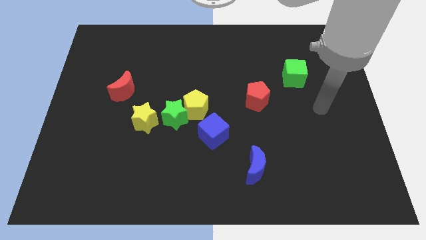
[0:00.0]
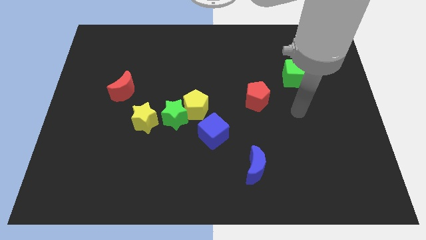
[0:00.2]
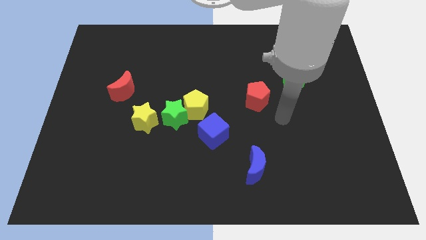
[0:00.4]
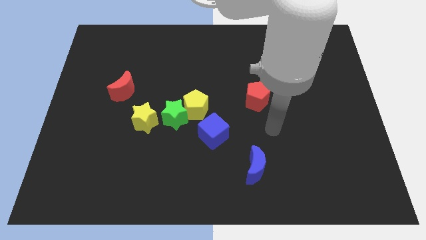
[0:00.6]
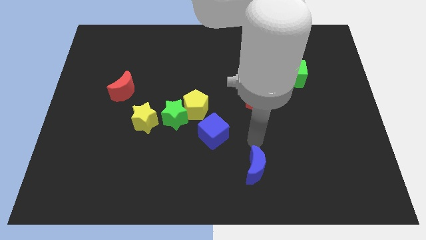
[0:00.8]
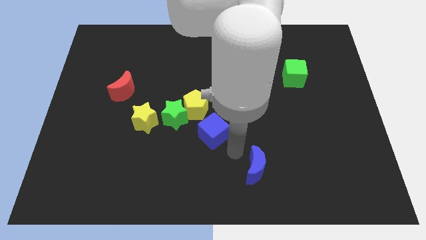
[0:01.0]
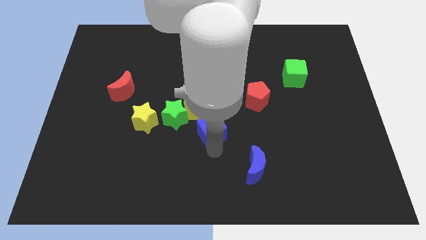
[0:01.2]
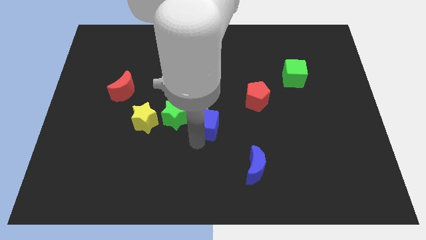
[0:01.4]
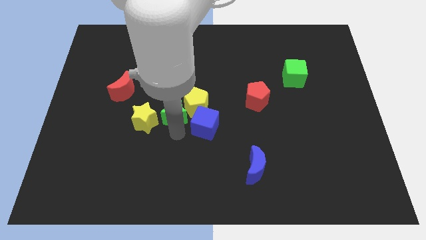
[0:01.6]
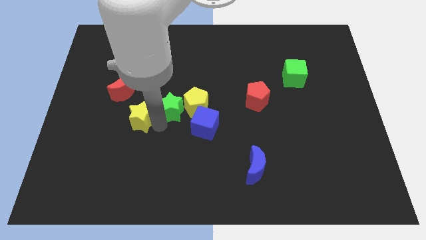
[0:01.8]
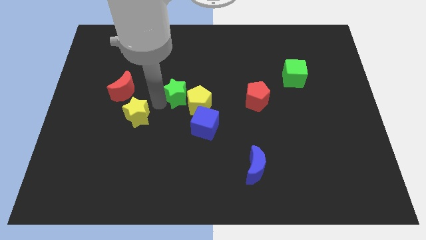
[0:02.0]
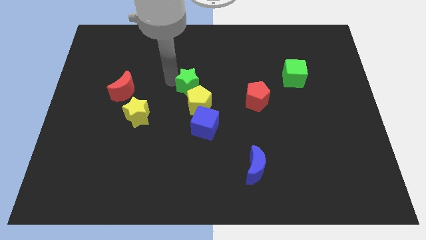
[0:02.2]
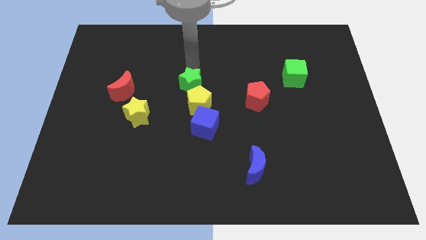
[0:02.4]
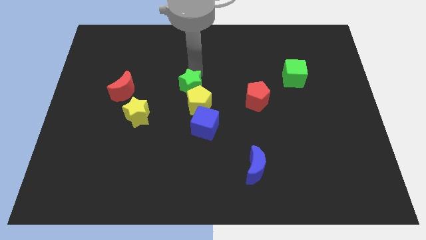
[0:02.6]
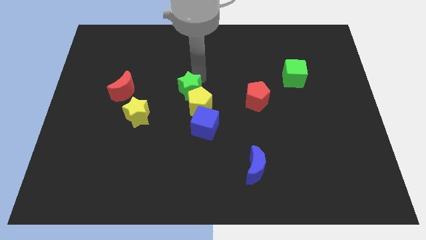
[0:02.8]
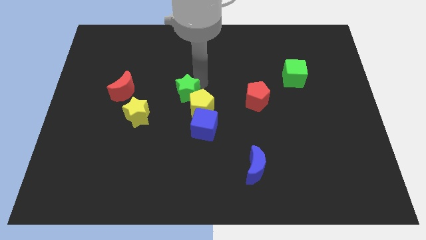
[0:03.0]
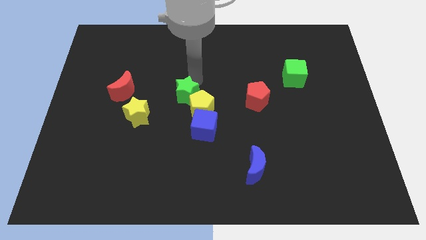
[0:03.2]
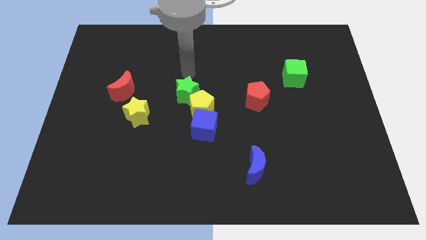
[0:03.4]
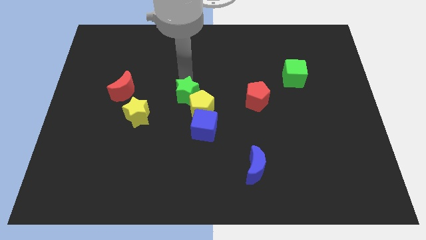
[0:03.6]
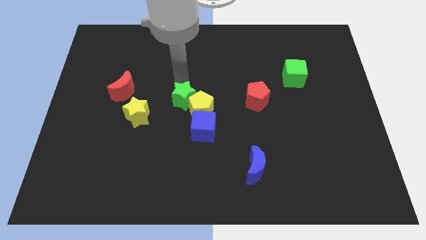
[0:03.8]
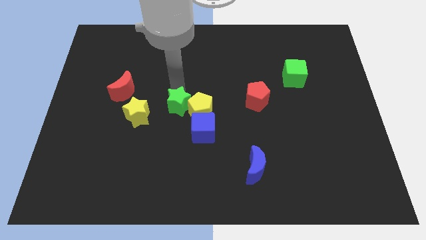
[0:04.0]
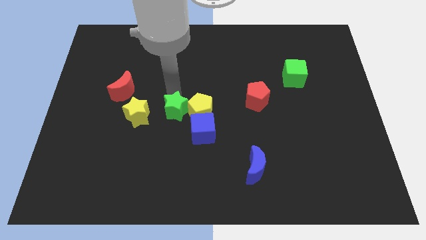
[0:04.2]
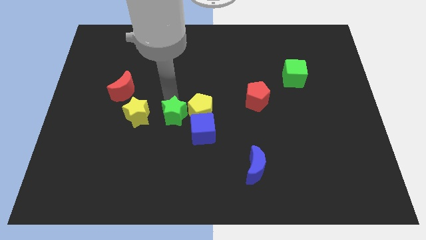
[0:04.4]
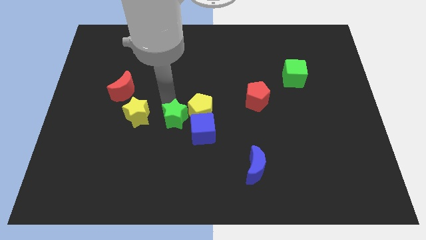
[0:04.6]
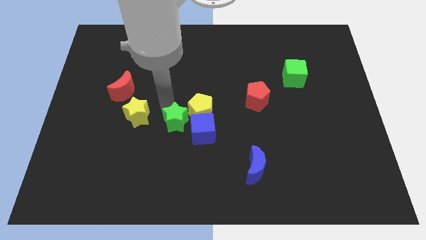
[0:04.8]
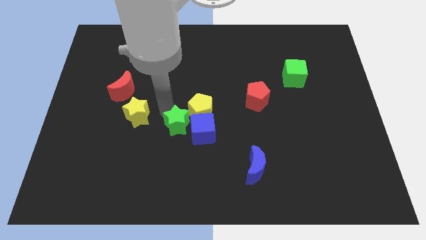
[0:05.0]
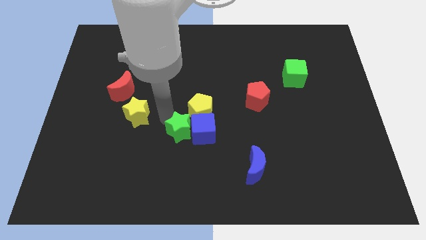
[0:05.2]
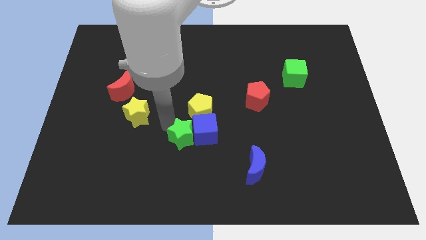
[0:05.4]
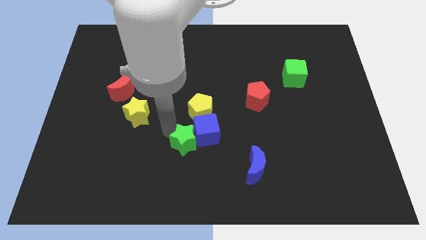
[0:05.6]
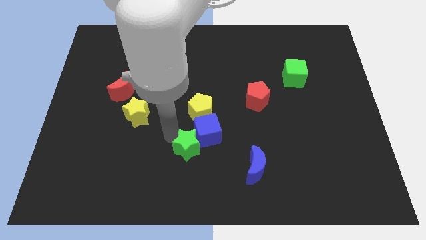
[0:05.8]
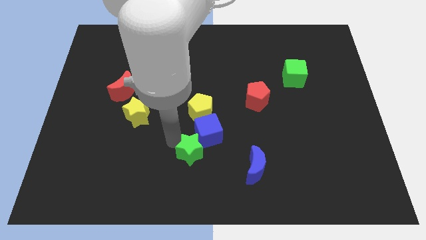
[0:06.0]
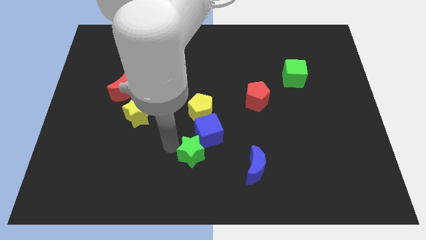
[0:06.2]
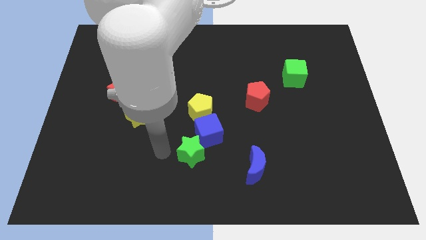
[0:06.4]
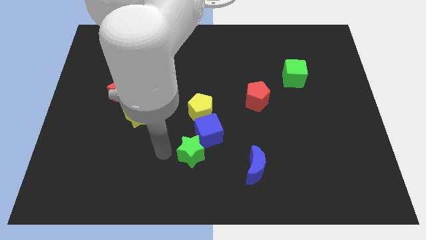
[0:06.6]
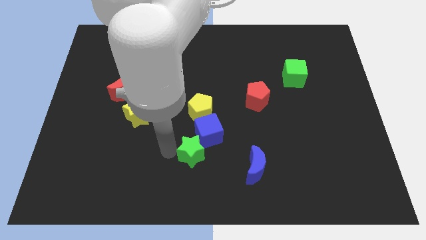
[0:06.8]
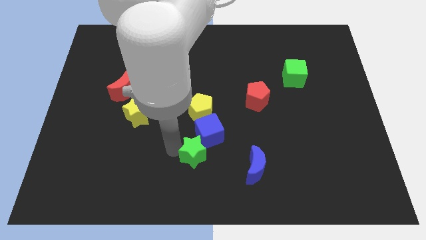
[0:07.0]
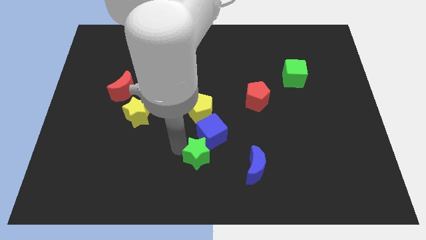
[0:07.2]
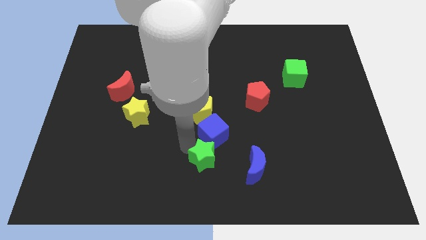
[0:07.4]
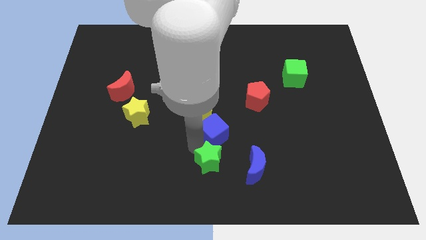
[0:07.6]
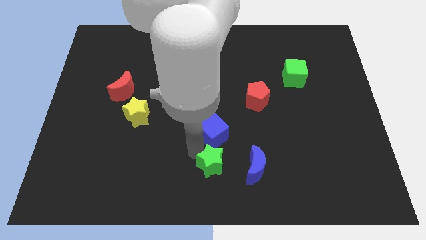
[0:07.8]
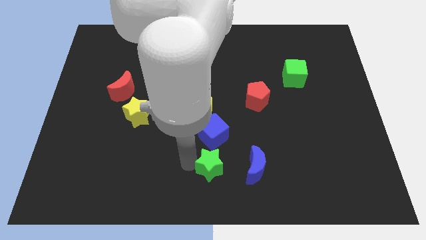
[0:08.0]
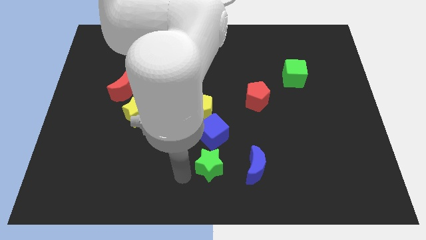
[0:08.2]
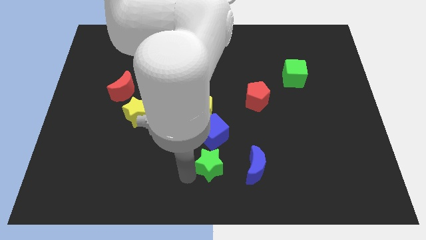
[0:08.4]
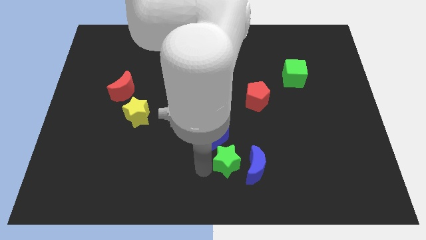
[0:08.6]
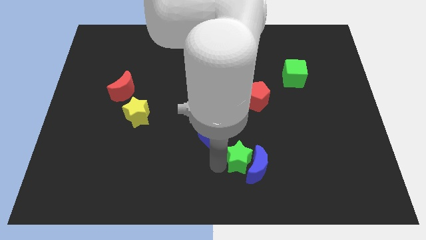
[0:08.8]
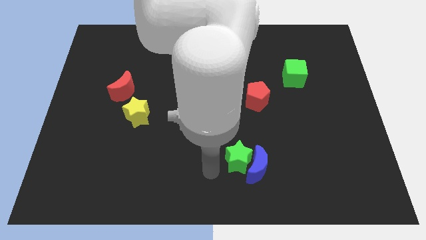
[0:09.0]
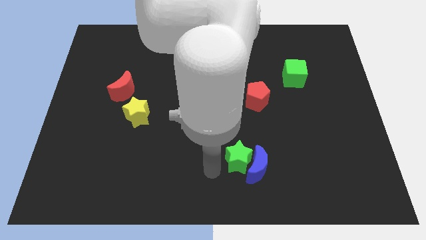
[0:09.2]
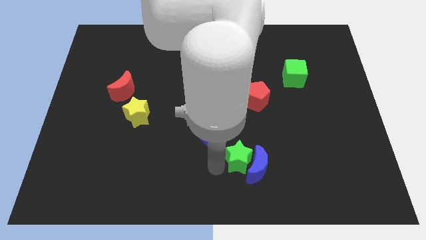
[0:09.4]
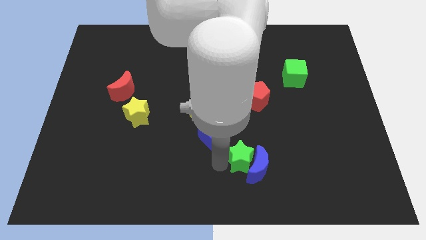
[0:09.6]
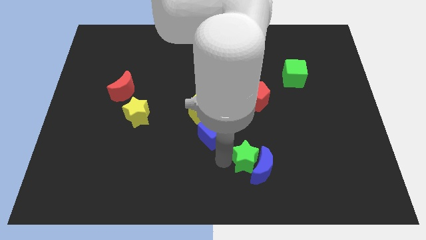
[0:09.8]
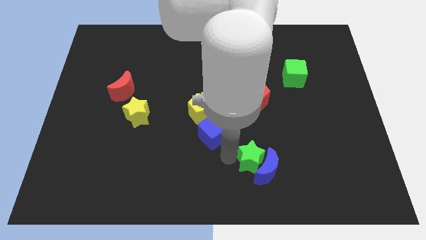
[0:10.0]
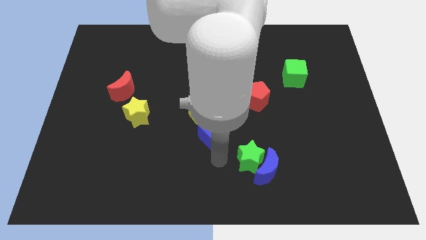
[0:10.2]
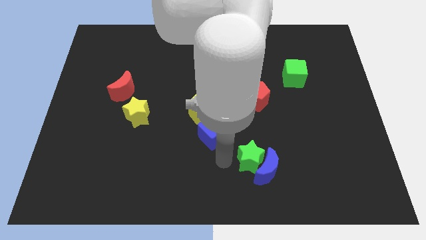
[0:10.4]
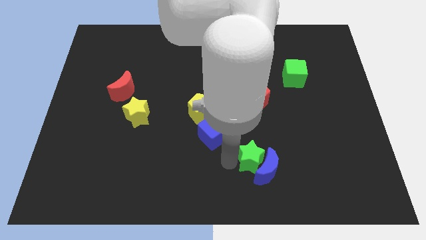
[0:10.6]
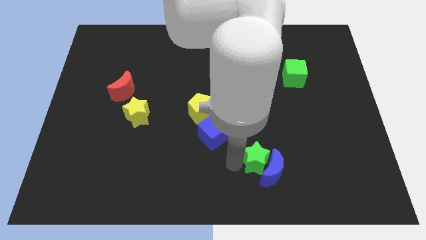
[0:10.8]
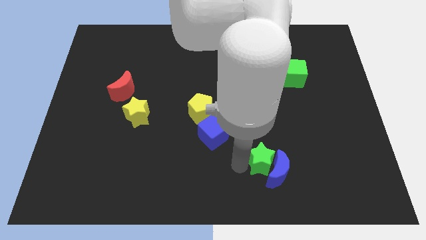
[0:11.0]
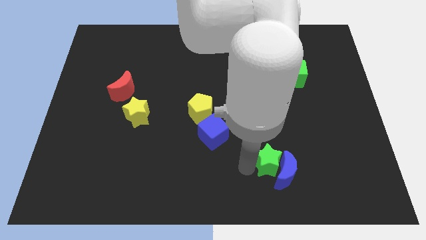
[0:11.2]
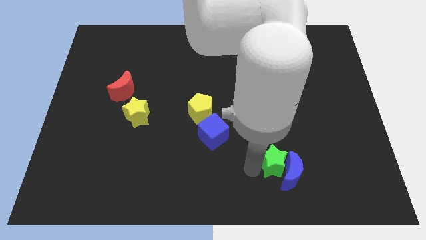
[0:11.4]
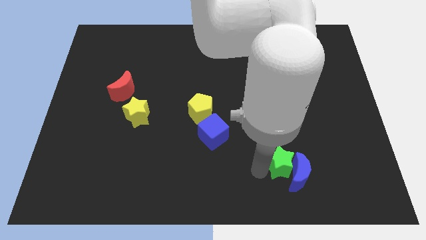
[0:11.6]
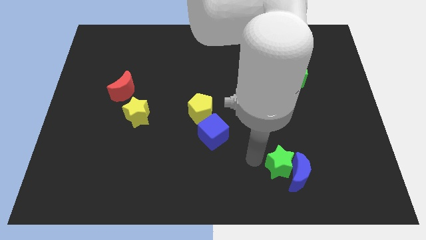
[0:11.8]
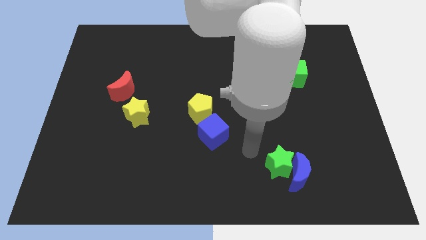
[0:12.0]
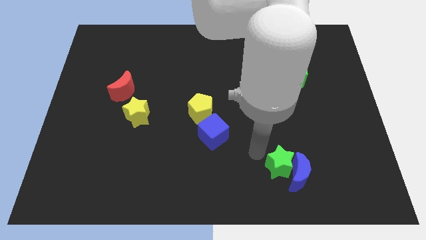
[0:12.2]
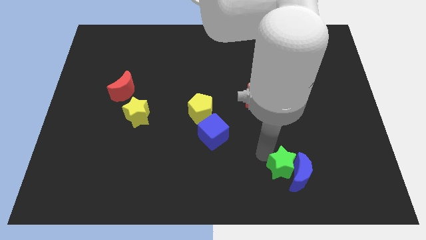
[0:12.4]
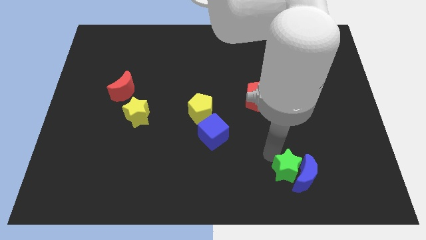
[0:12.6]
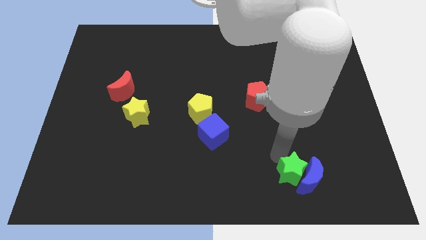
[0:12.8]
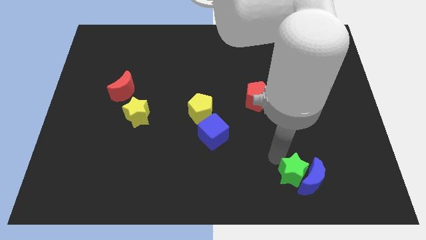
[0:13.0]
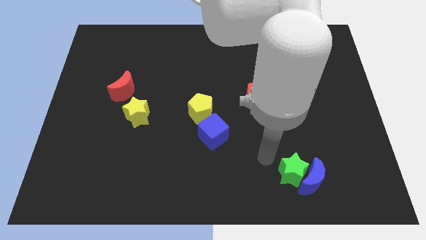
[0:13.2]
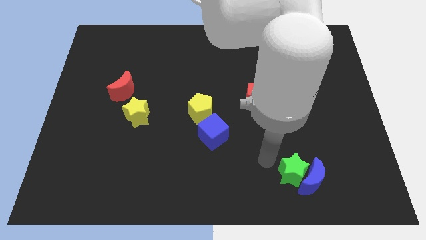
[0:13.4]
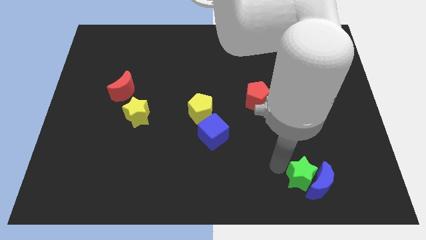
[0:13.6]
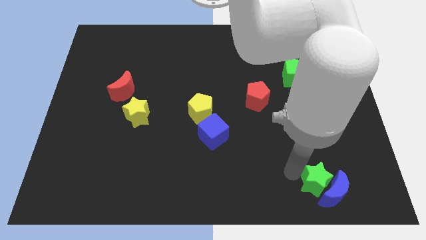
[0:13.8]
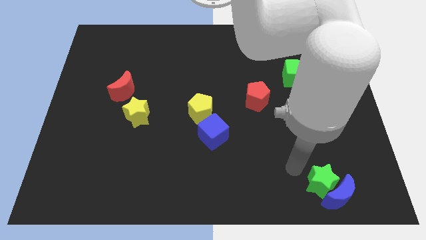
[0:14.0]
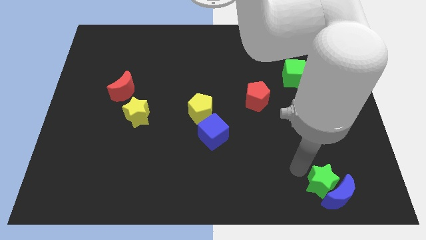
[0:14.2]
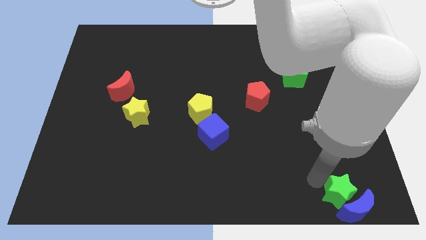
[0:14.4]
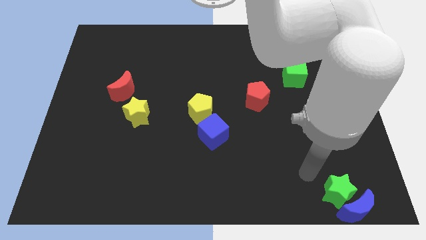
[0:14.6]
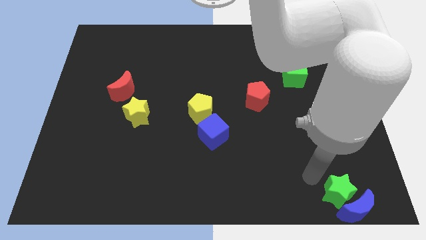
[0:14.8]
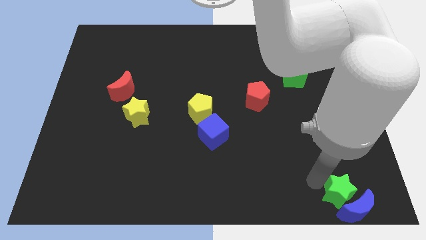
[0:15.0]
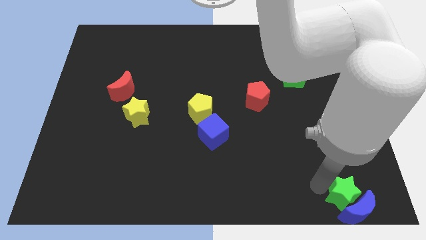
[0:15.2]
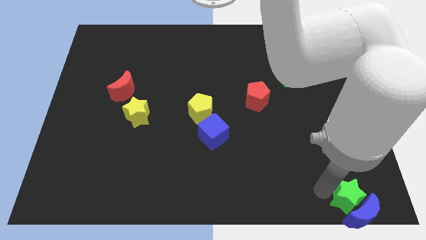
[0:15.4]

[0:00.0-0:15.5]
push the green star to the bottom right corner
